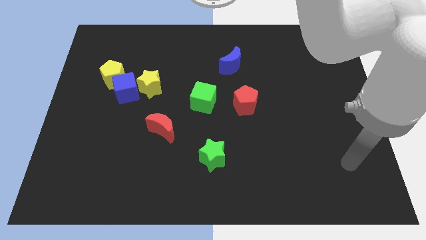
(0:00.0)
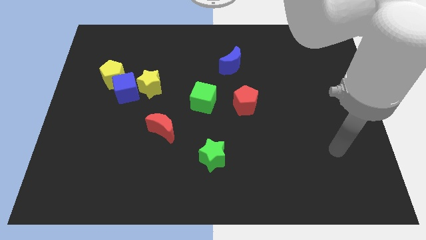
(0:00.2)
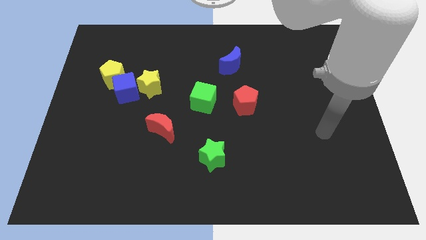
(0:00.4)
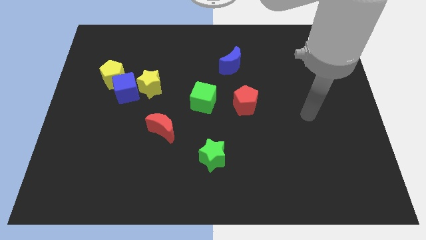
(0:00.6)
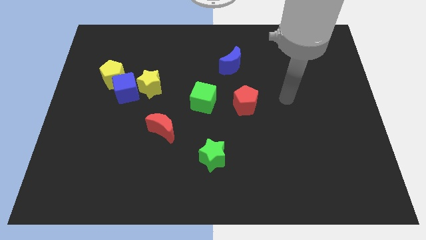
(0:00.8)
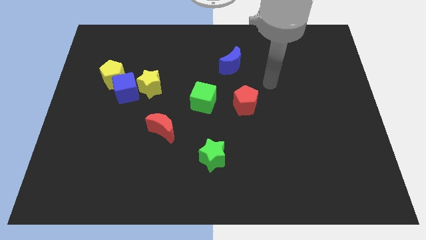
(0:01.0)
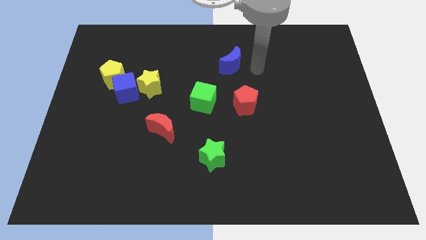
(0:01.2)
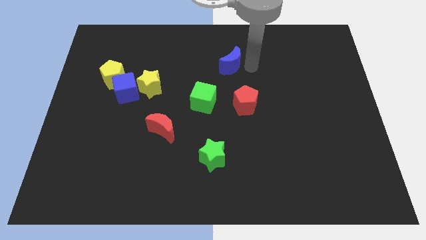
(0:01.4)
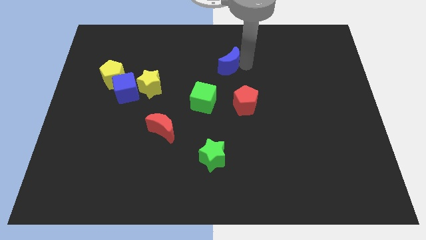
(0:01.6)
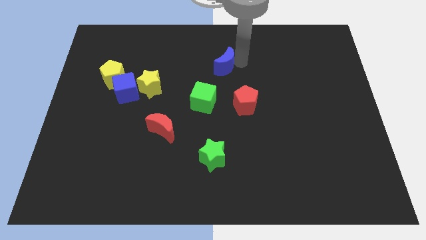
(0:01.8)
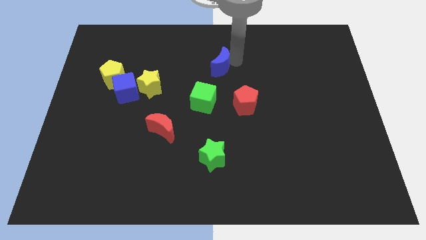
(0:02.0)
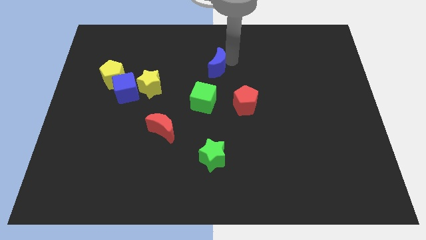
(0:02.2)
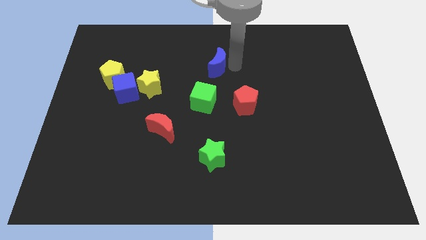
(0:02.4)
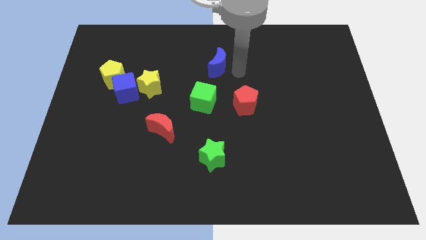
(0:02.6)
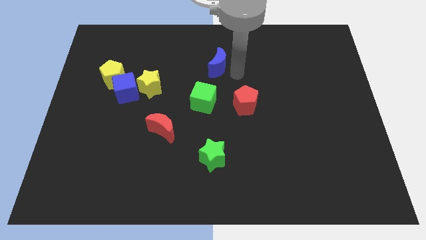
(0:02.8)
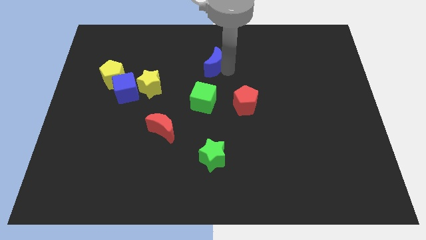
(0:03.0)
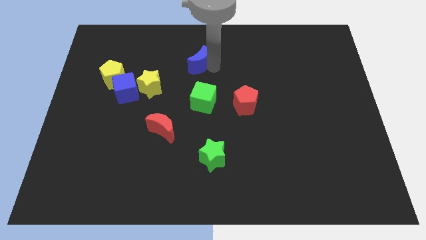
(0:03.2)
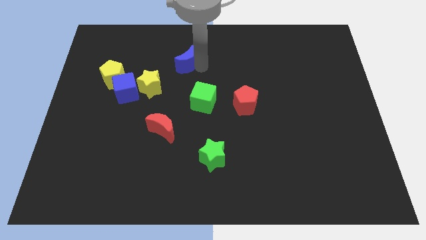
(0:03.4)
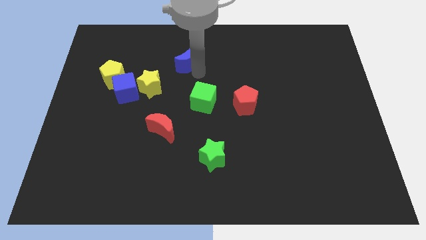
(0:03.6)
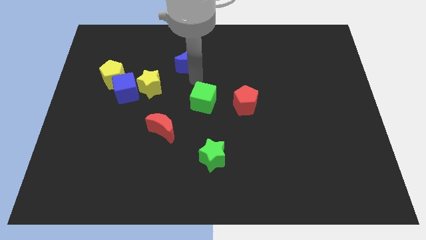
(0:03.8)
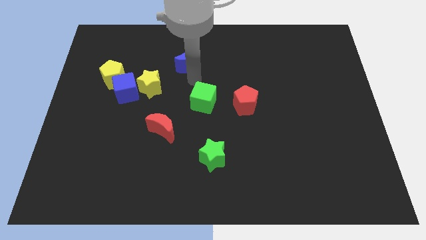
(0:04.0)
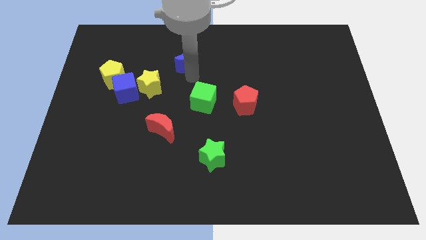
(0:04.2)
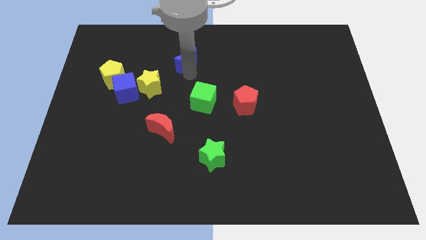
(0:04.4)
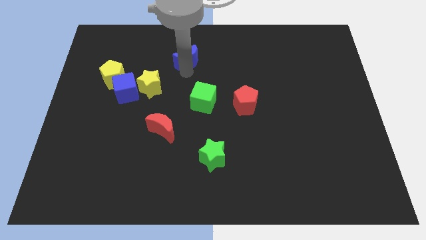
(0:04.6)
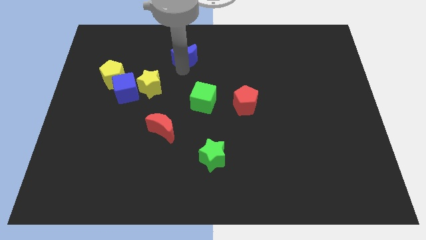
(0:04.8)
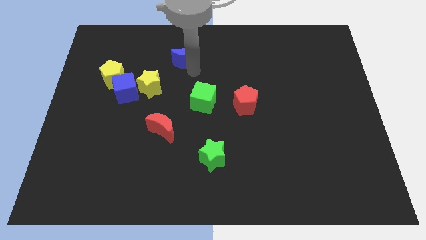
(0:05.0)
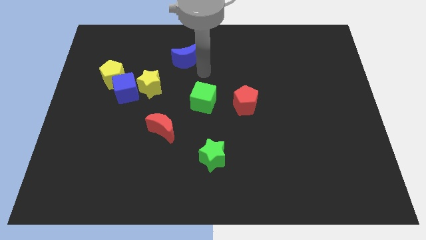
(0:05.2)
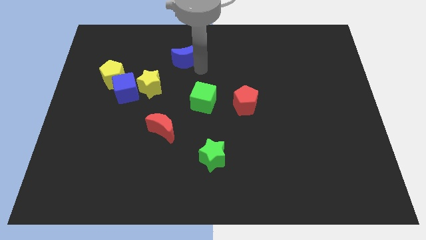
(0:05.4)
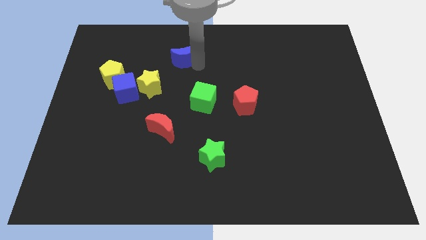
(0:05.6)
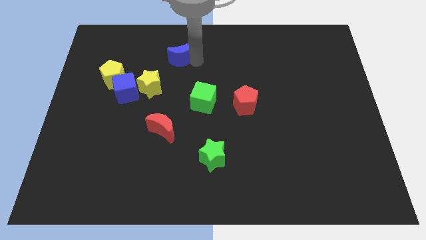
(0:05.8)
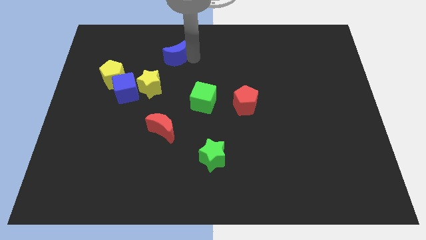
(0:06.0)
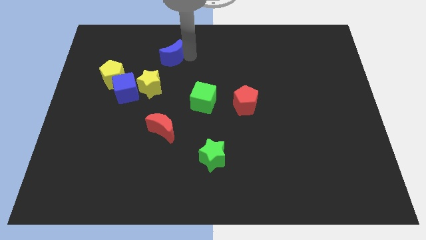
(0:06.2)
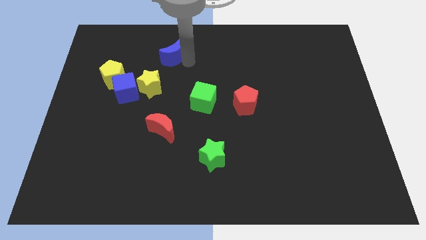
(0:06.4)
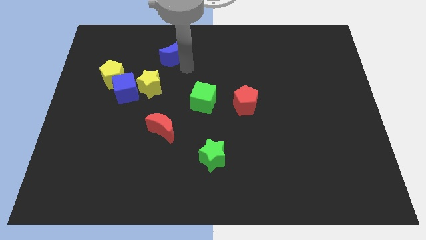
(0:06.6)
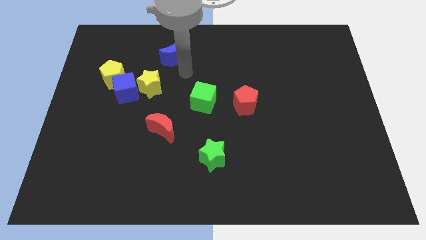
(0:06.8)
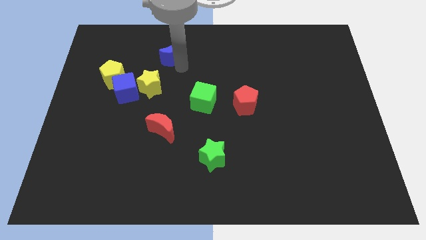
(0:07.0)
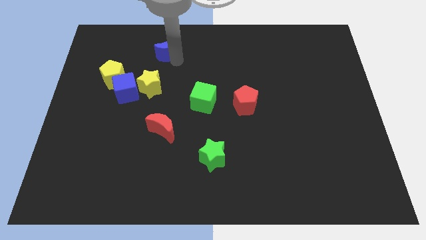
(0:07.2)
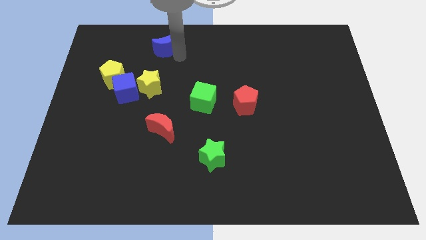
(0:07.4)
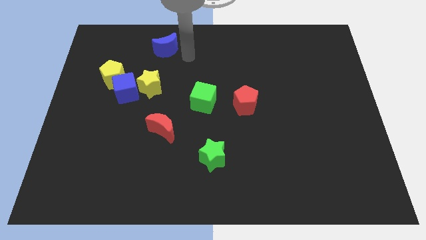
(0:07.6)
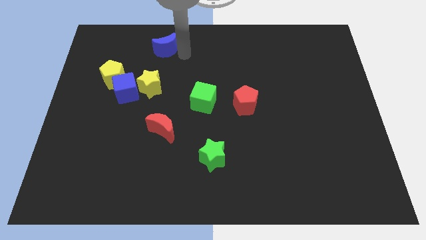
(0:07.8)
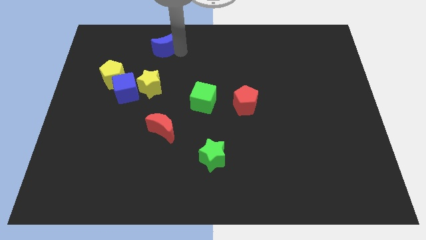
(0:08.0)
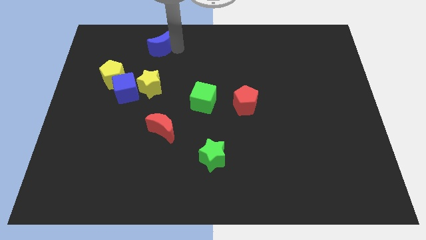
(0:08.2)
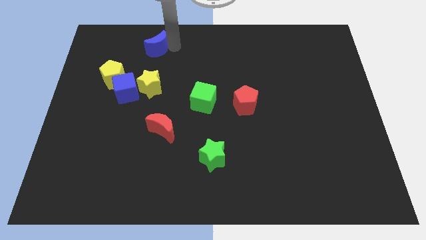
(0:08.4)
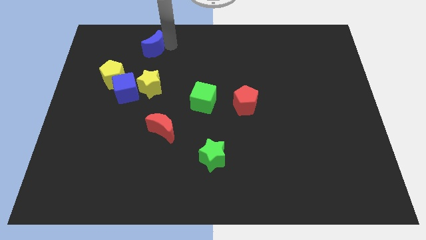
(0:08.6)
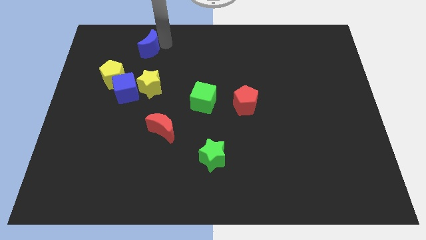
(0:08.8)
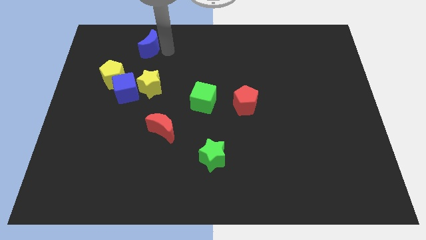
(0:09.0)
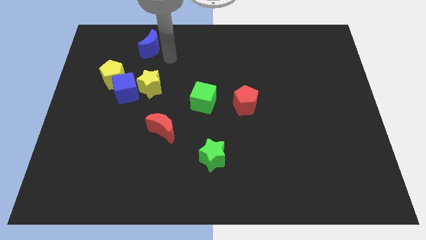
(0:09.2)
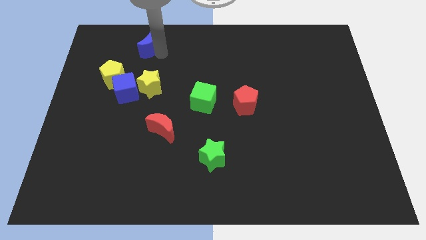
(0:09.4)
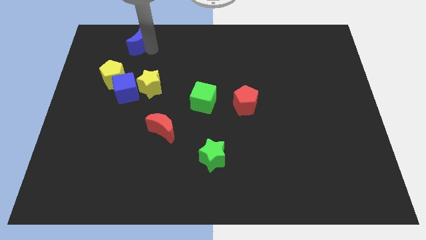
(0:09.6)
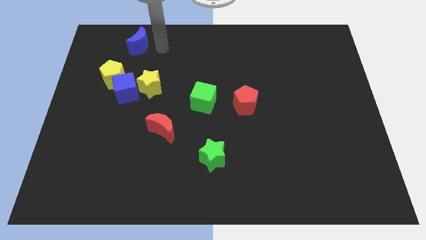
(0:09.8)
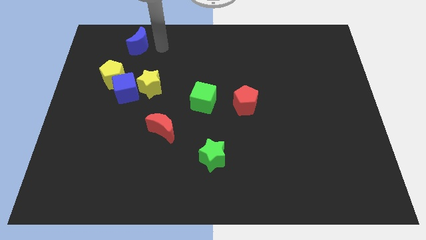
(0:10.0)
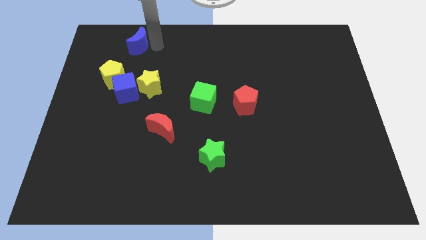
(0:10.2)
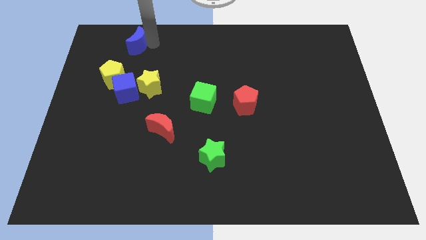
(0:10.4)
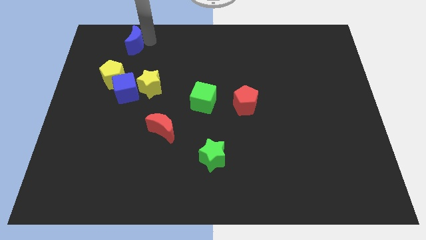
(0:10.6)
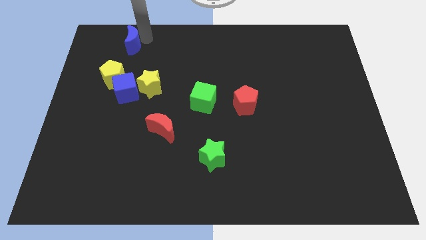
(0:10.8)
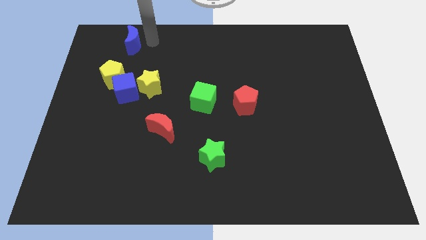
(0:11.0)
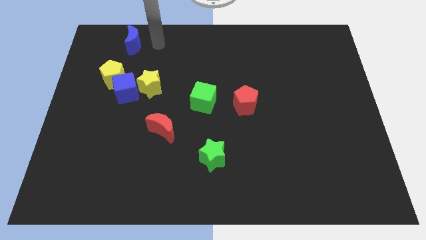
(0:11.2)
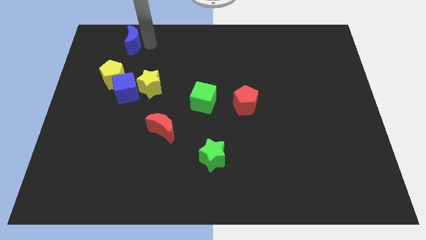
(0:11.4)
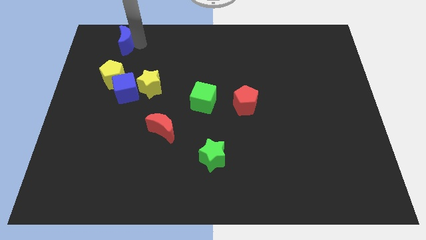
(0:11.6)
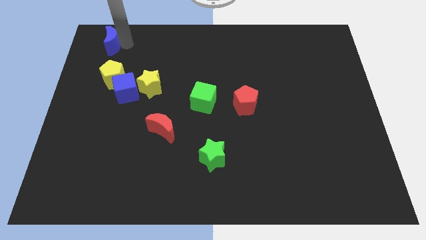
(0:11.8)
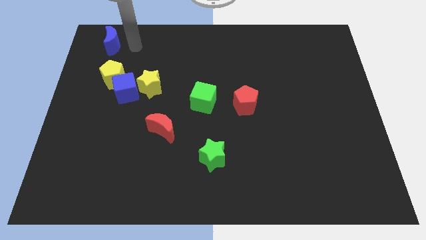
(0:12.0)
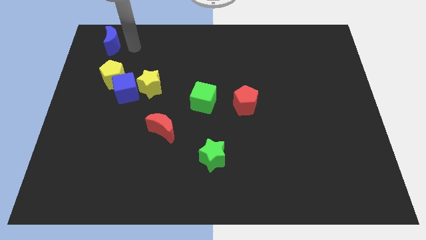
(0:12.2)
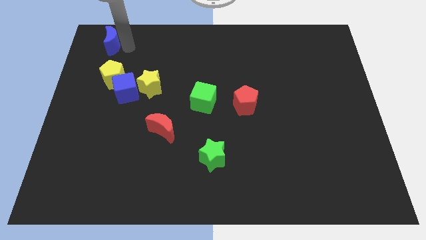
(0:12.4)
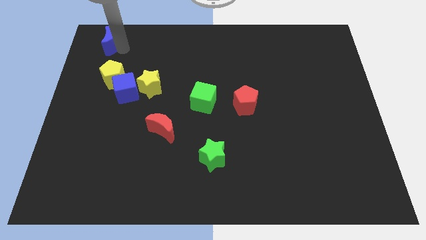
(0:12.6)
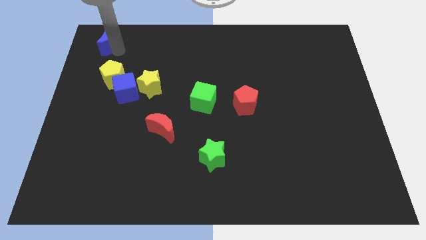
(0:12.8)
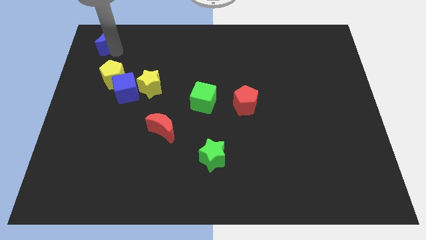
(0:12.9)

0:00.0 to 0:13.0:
push the blue moon to the upper left corner

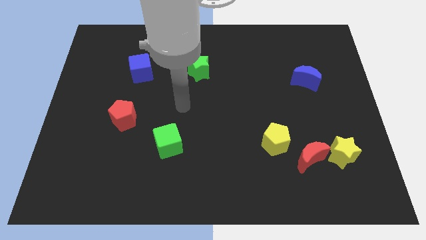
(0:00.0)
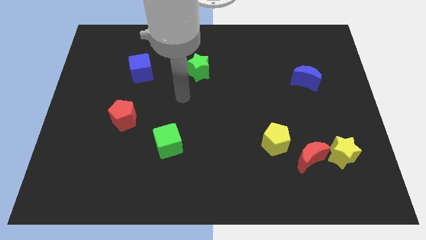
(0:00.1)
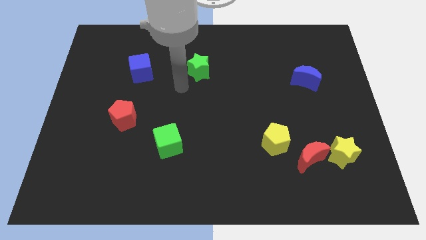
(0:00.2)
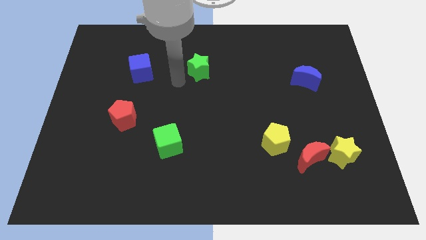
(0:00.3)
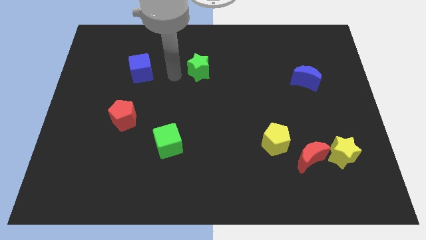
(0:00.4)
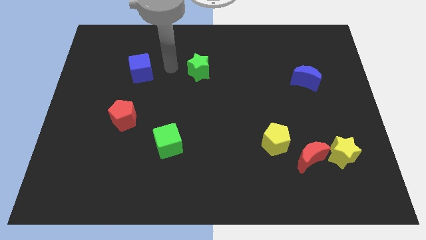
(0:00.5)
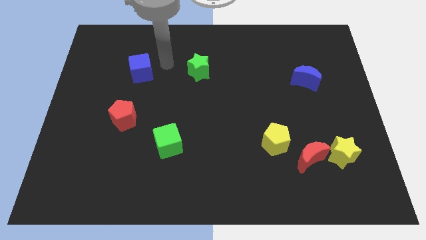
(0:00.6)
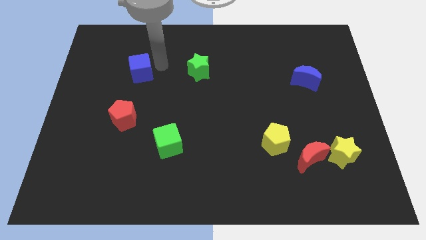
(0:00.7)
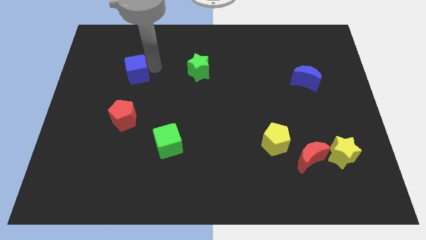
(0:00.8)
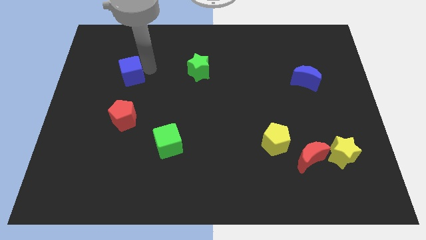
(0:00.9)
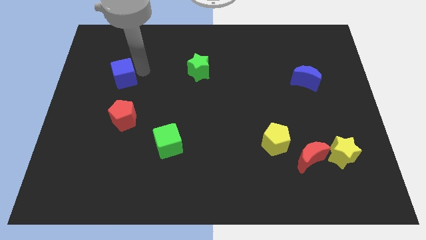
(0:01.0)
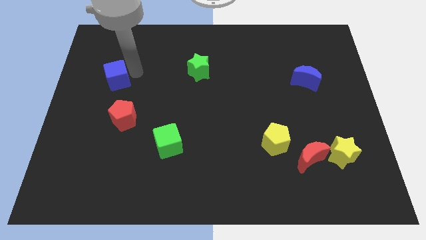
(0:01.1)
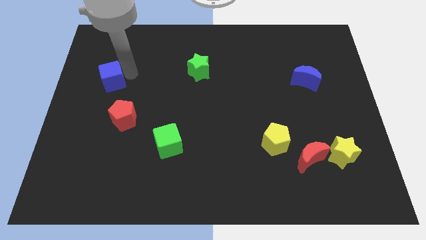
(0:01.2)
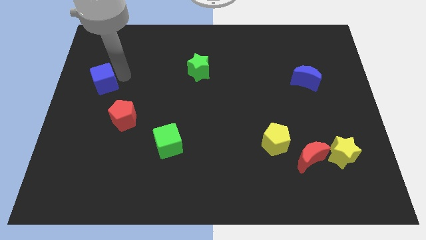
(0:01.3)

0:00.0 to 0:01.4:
slide the blue cube to the center left

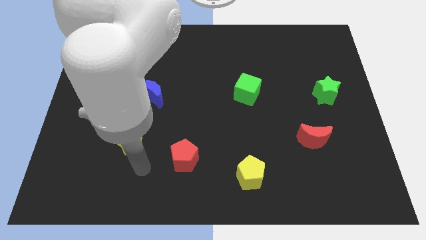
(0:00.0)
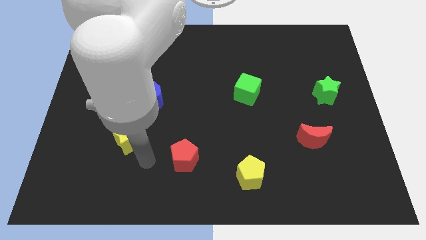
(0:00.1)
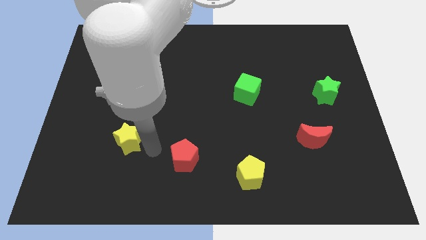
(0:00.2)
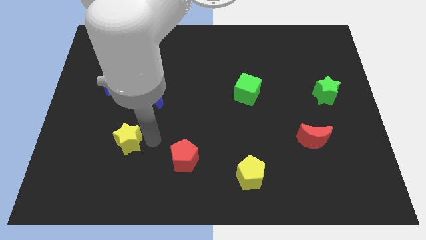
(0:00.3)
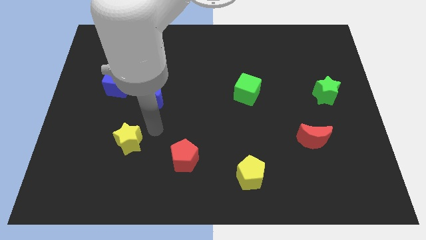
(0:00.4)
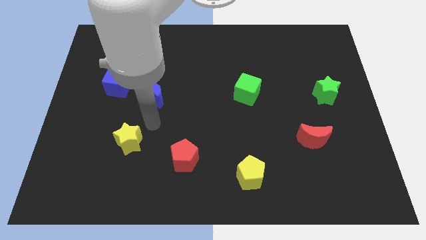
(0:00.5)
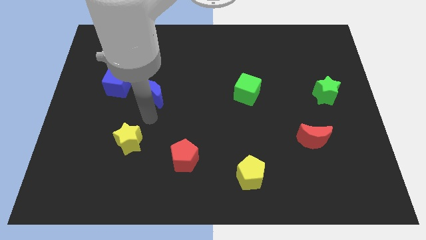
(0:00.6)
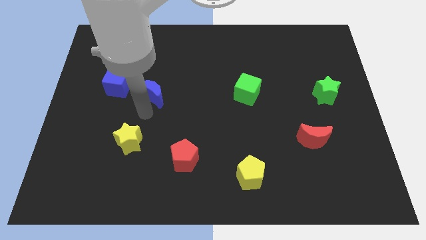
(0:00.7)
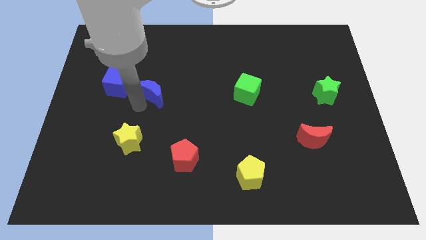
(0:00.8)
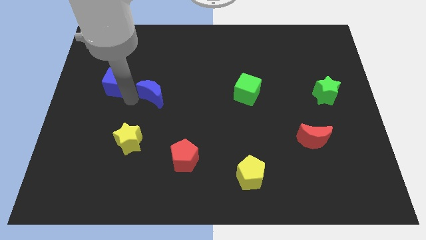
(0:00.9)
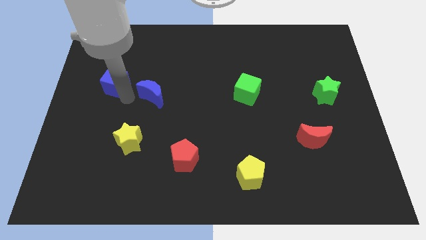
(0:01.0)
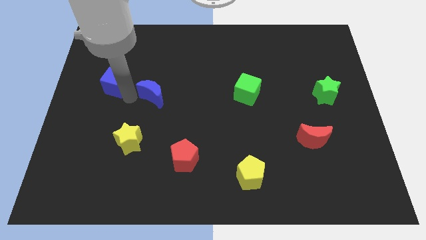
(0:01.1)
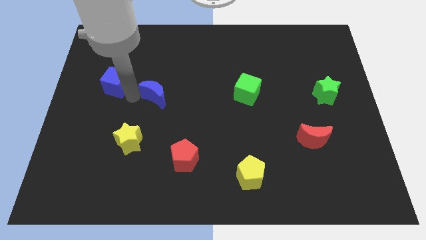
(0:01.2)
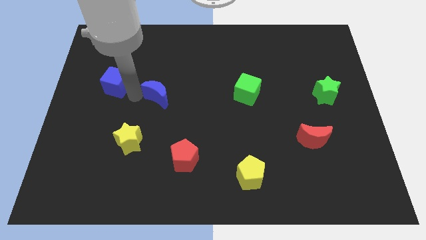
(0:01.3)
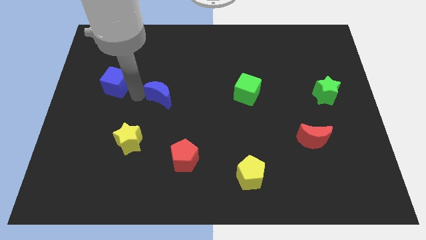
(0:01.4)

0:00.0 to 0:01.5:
push the blue moon to the middle
